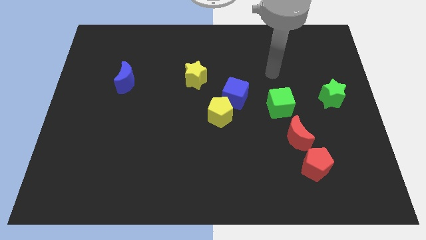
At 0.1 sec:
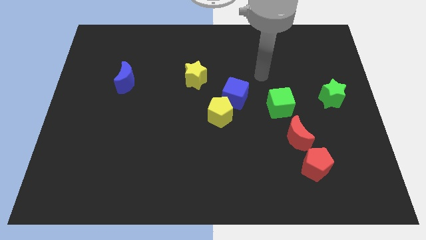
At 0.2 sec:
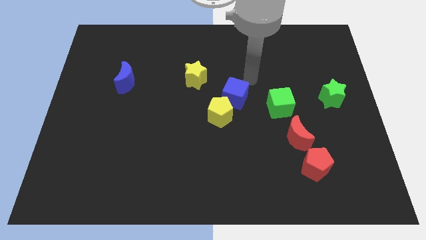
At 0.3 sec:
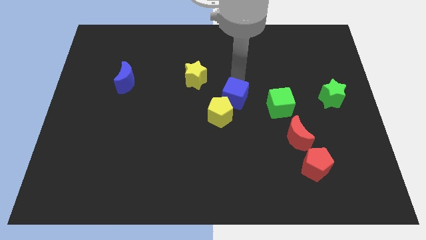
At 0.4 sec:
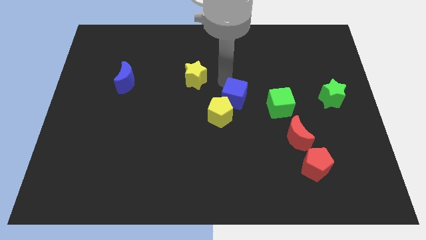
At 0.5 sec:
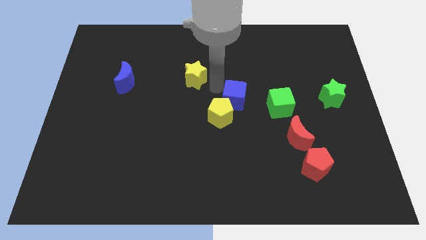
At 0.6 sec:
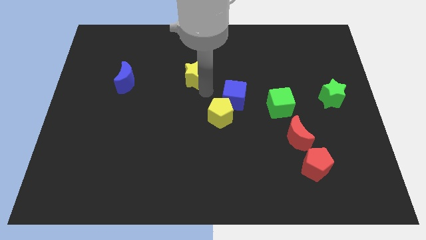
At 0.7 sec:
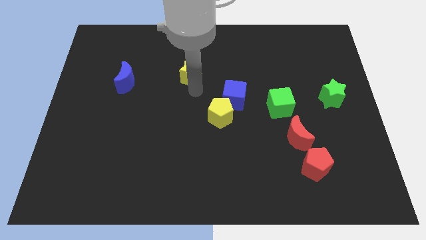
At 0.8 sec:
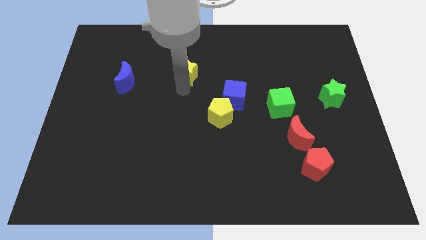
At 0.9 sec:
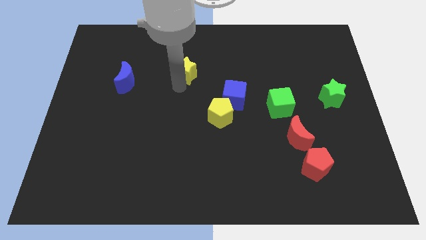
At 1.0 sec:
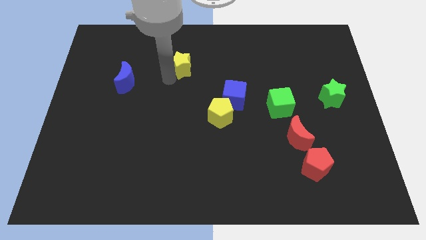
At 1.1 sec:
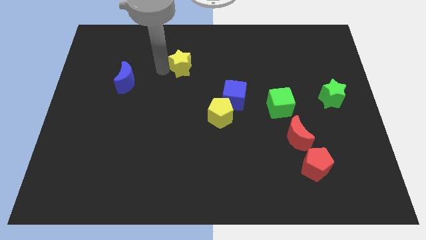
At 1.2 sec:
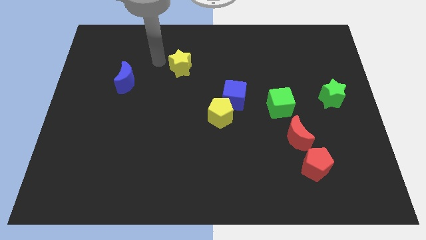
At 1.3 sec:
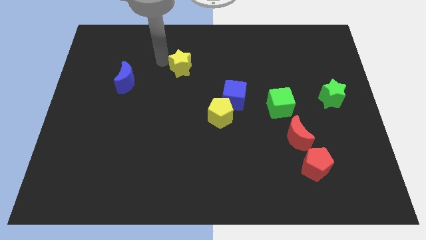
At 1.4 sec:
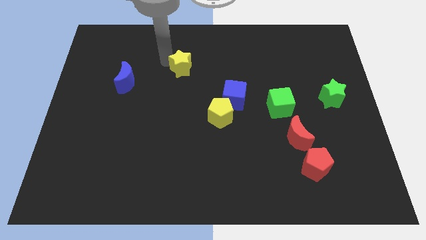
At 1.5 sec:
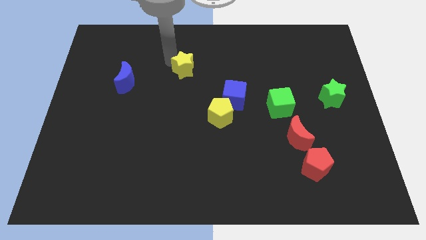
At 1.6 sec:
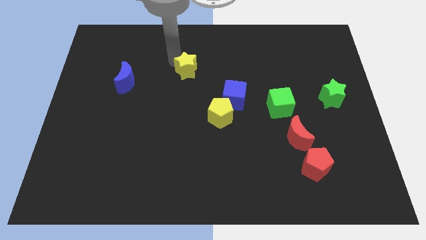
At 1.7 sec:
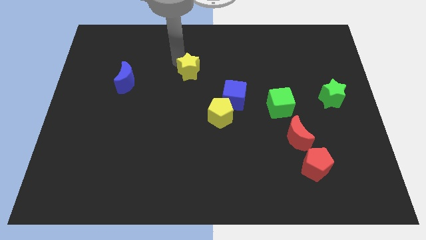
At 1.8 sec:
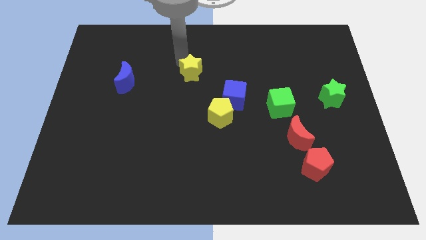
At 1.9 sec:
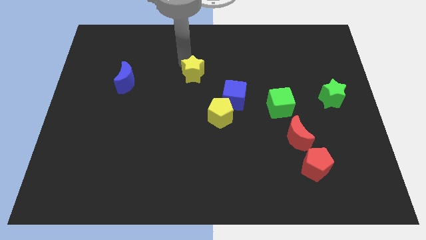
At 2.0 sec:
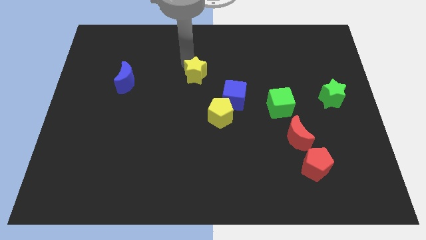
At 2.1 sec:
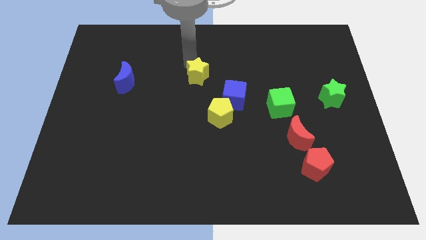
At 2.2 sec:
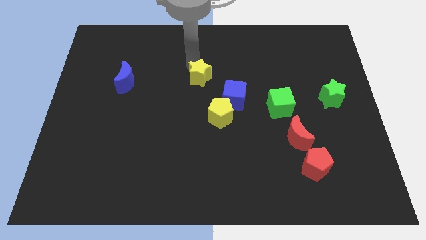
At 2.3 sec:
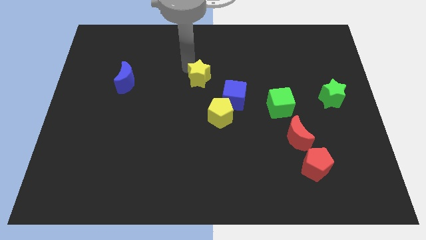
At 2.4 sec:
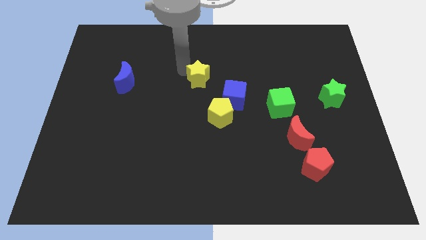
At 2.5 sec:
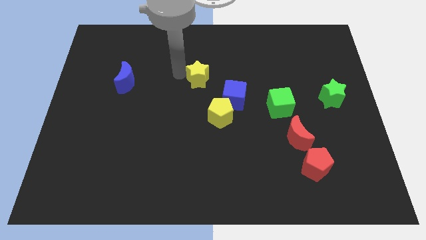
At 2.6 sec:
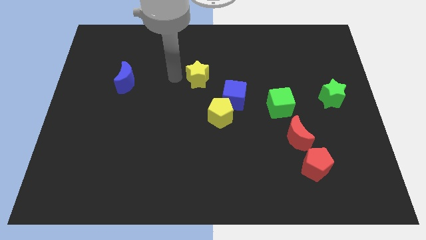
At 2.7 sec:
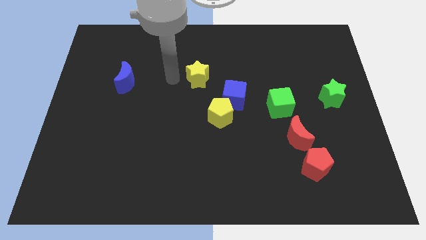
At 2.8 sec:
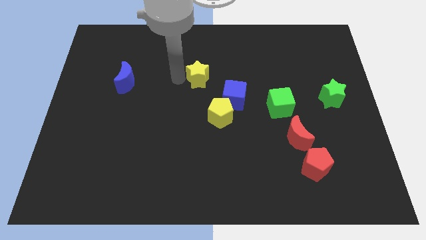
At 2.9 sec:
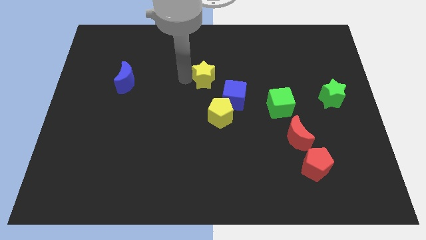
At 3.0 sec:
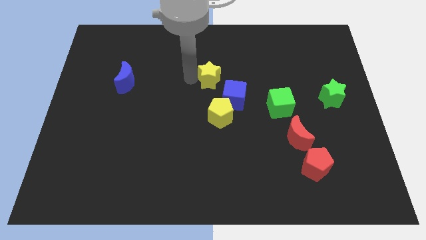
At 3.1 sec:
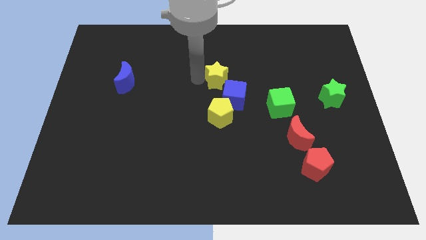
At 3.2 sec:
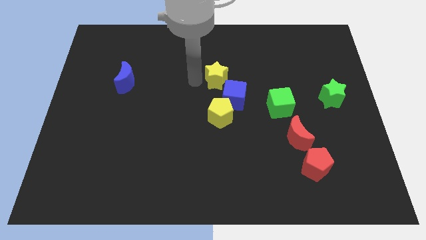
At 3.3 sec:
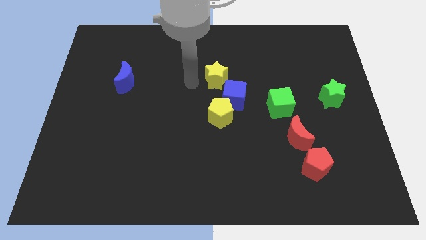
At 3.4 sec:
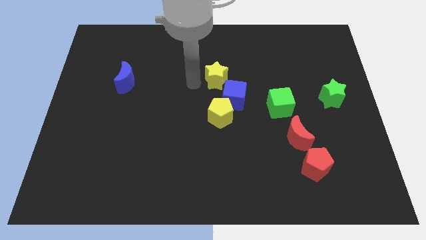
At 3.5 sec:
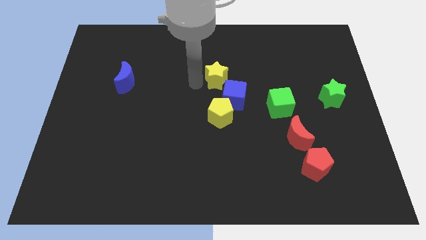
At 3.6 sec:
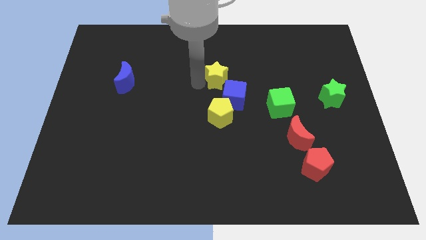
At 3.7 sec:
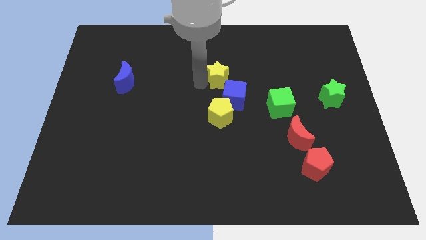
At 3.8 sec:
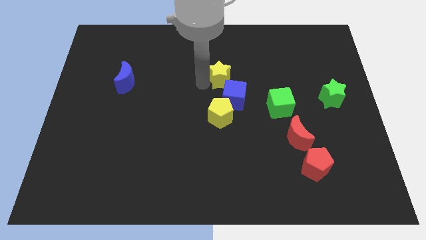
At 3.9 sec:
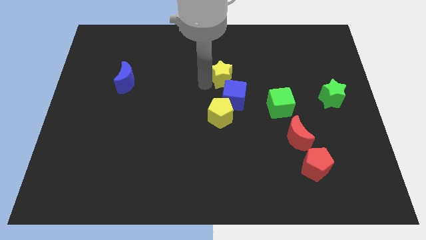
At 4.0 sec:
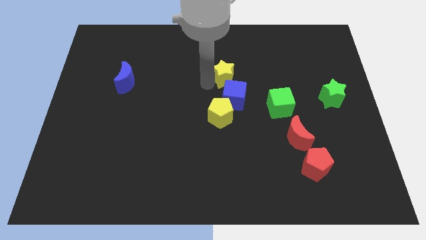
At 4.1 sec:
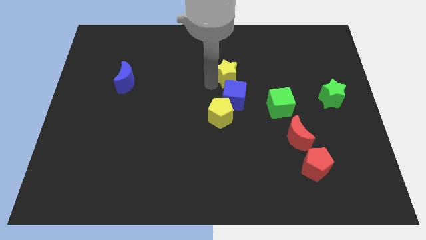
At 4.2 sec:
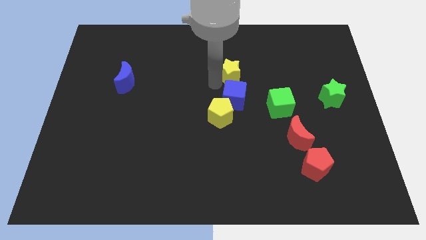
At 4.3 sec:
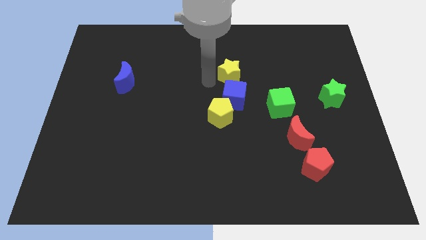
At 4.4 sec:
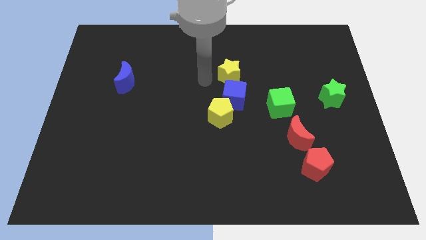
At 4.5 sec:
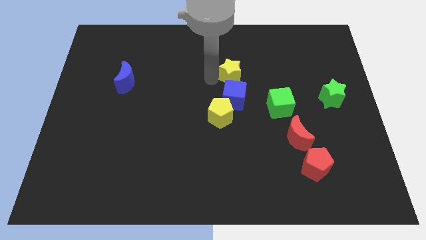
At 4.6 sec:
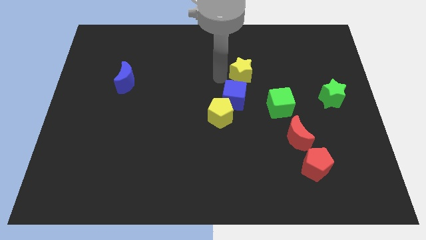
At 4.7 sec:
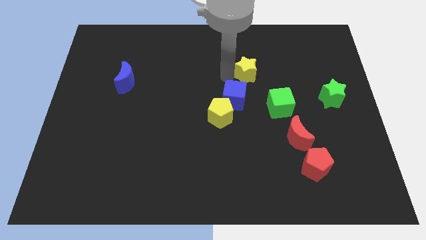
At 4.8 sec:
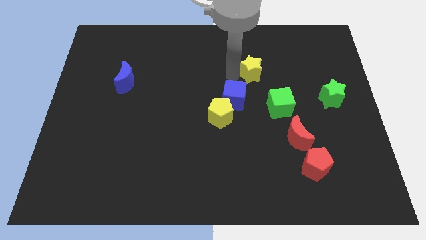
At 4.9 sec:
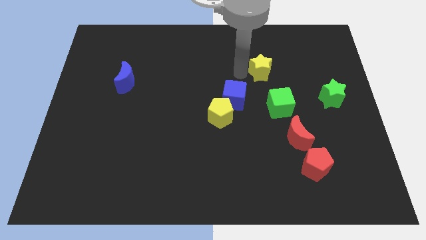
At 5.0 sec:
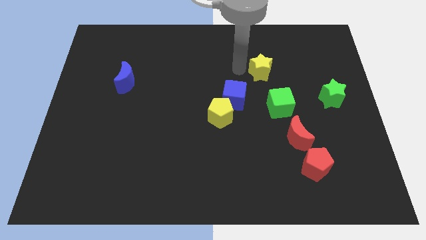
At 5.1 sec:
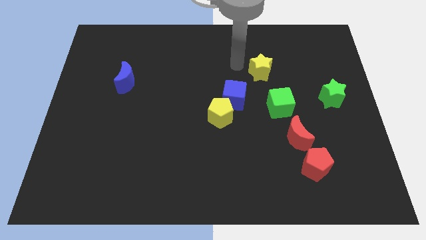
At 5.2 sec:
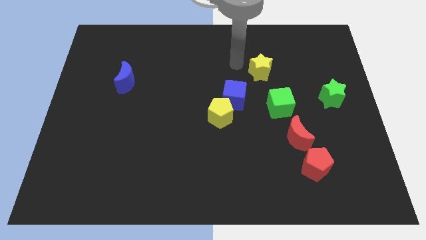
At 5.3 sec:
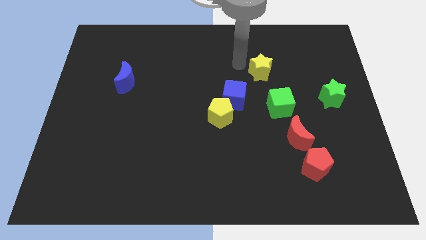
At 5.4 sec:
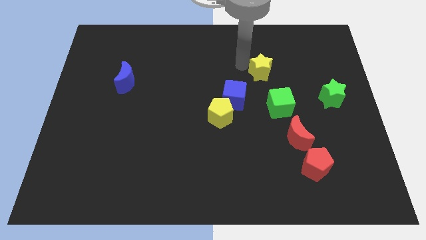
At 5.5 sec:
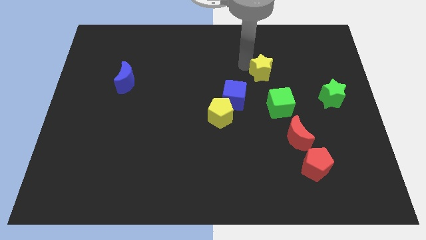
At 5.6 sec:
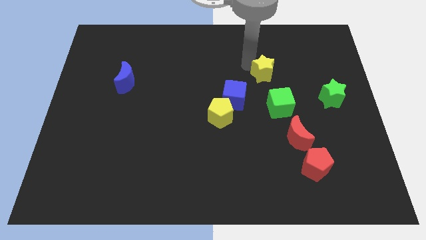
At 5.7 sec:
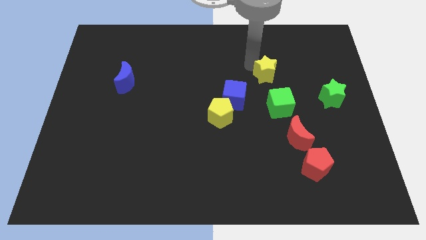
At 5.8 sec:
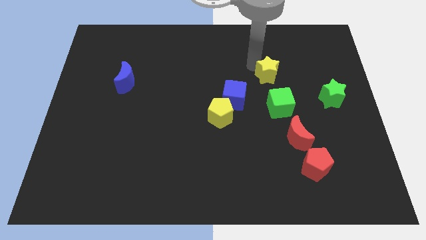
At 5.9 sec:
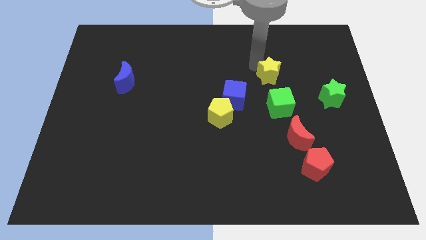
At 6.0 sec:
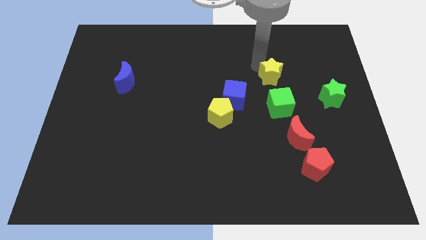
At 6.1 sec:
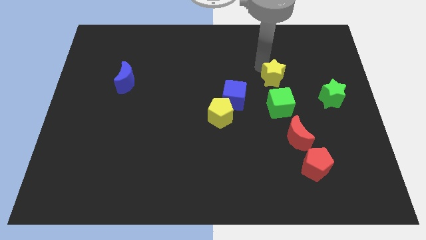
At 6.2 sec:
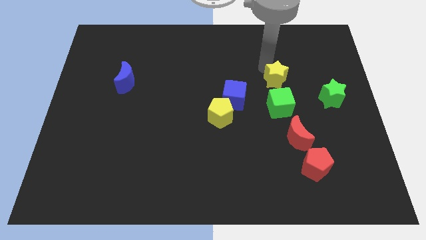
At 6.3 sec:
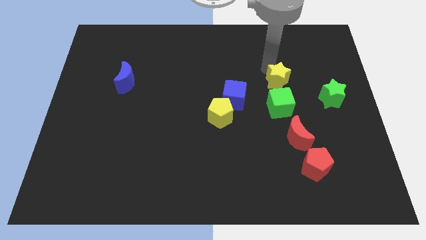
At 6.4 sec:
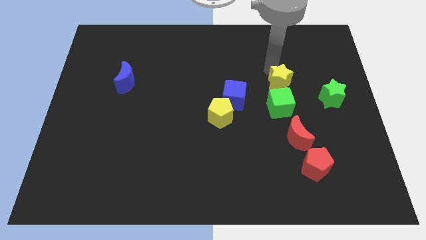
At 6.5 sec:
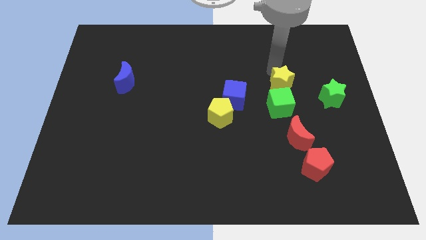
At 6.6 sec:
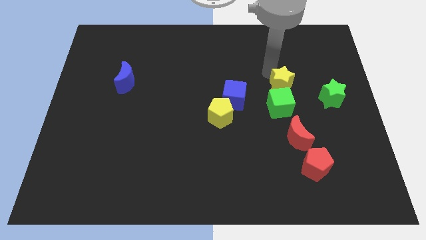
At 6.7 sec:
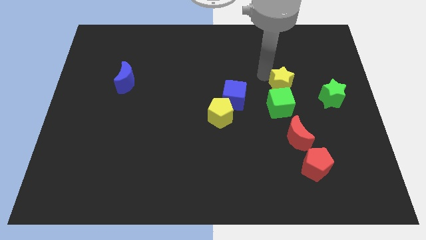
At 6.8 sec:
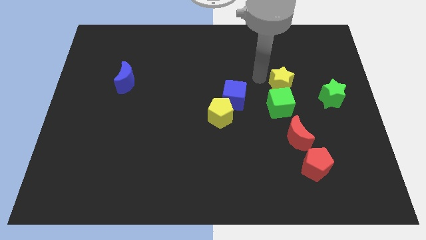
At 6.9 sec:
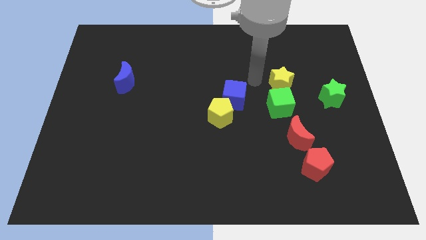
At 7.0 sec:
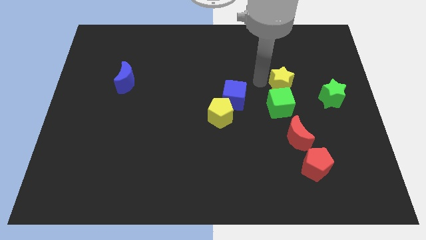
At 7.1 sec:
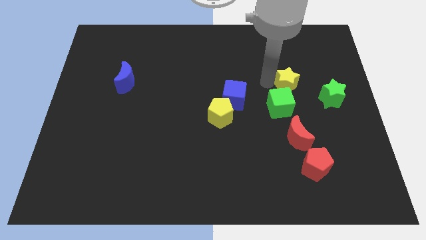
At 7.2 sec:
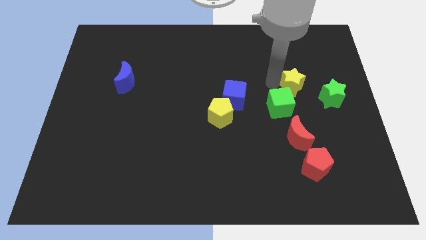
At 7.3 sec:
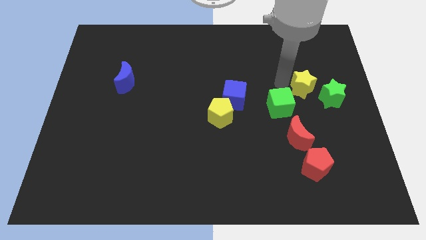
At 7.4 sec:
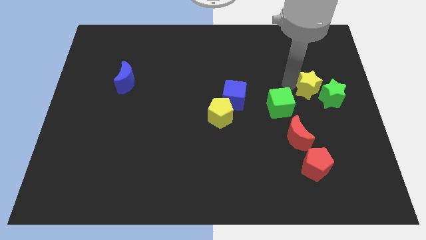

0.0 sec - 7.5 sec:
push the yellow star next to the green star

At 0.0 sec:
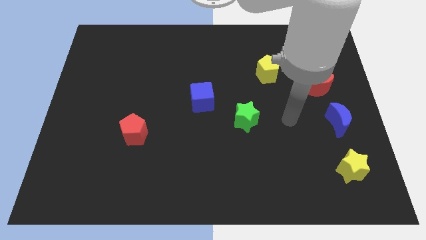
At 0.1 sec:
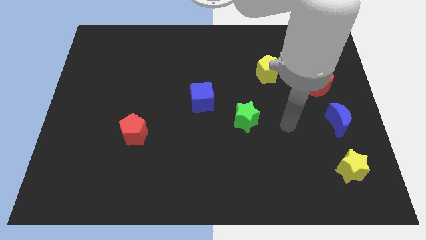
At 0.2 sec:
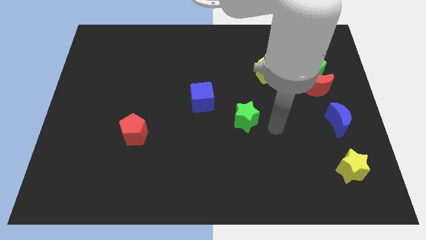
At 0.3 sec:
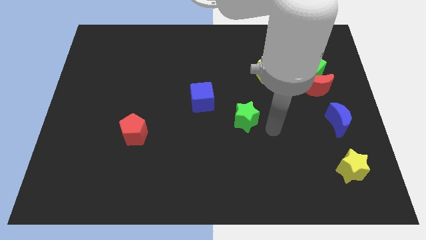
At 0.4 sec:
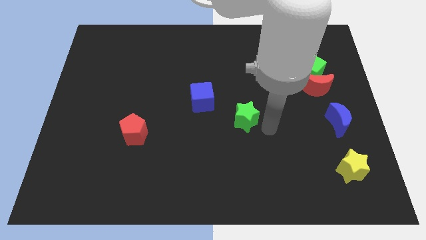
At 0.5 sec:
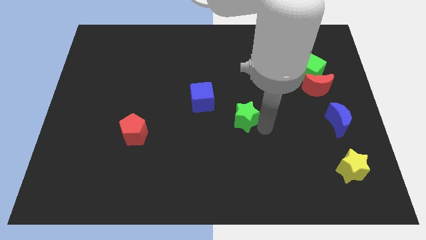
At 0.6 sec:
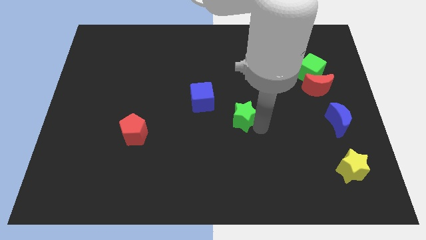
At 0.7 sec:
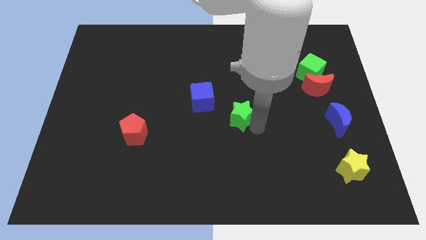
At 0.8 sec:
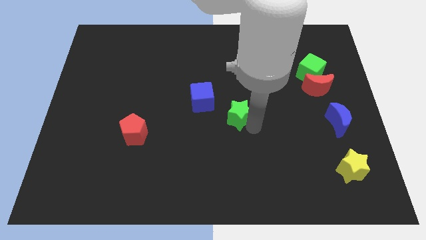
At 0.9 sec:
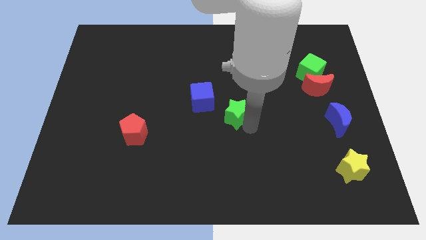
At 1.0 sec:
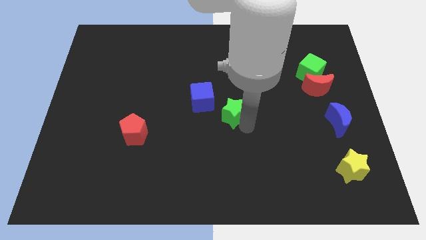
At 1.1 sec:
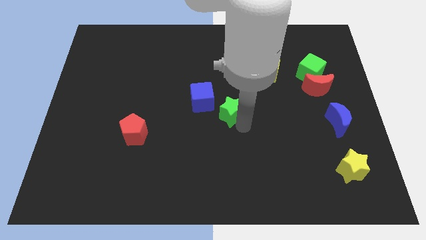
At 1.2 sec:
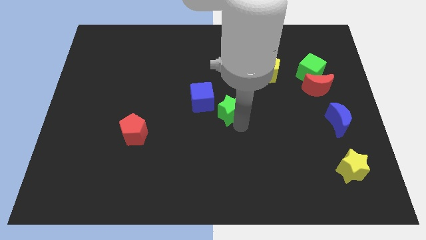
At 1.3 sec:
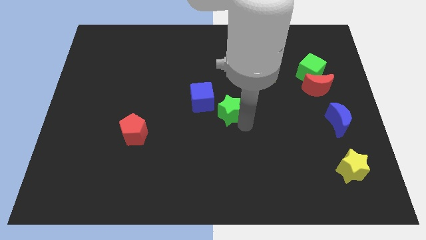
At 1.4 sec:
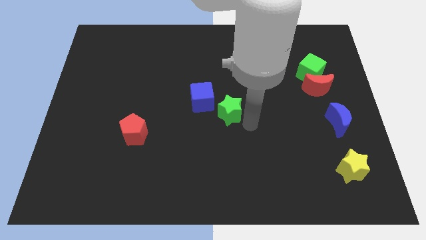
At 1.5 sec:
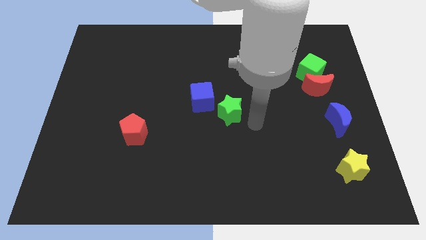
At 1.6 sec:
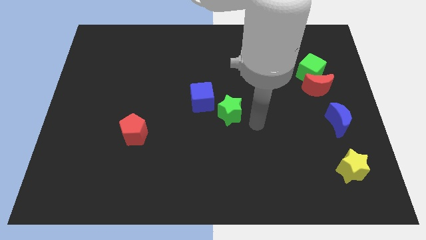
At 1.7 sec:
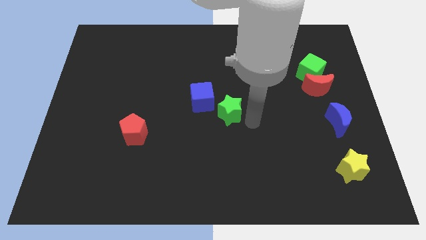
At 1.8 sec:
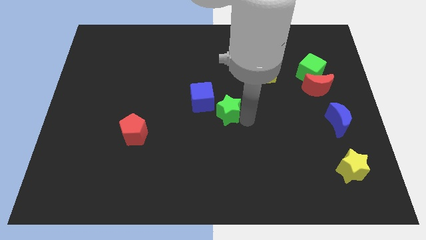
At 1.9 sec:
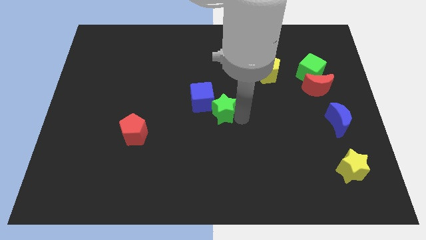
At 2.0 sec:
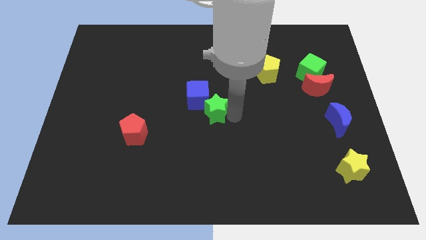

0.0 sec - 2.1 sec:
put the green star next to the blue cube
